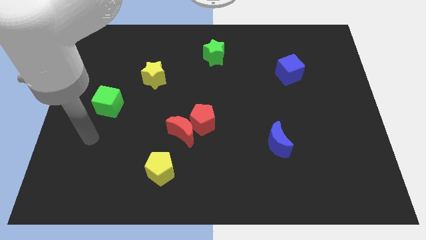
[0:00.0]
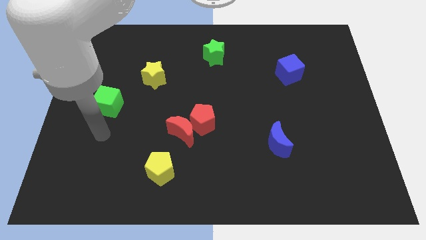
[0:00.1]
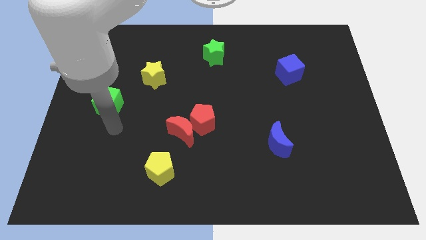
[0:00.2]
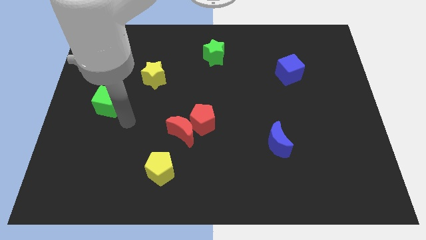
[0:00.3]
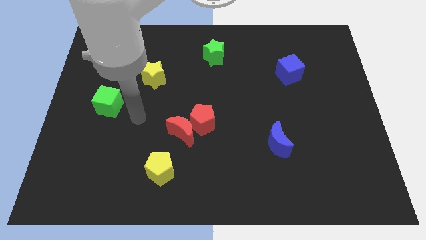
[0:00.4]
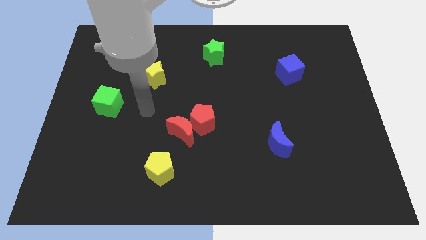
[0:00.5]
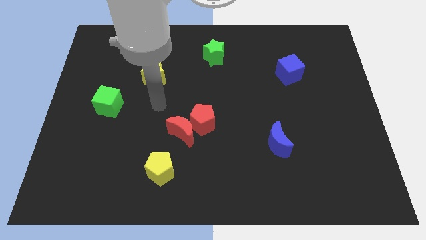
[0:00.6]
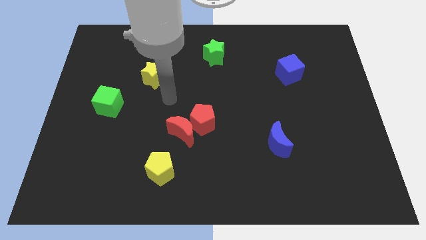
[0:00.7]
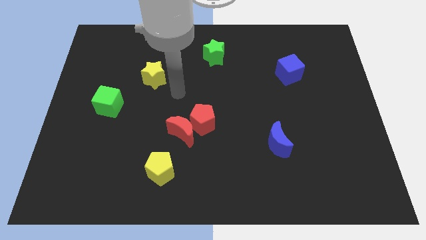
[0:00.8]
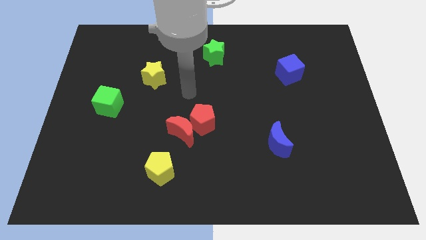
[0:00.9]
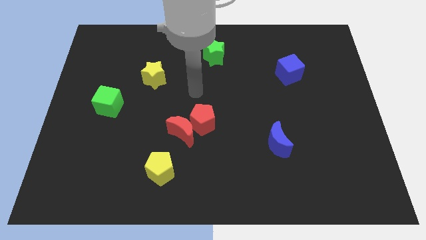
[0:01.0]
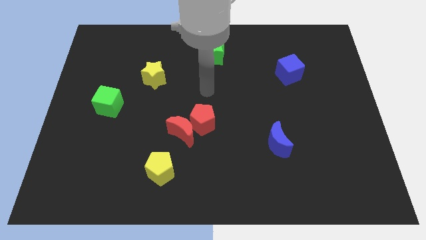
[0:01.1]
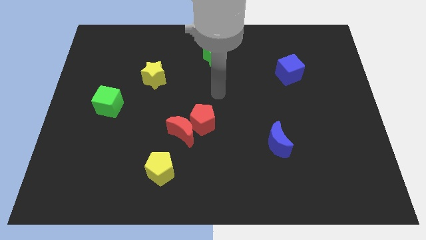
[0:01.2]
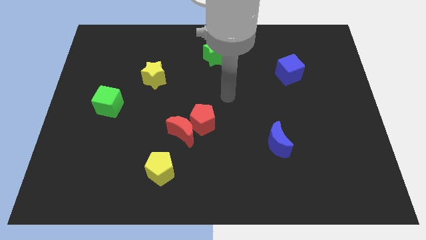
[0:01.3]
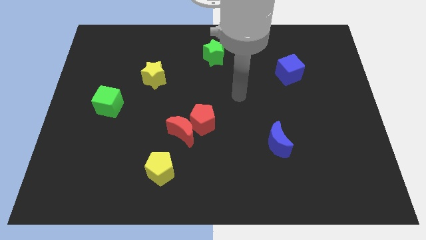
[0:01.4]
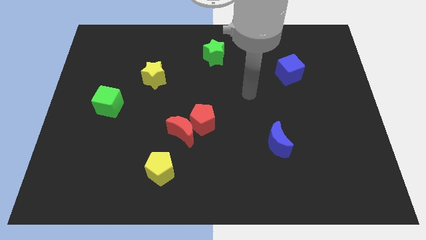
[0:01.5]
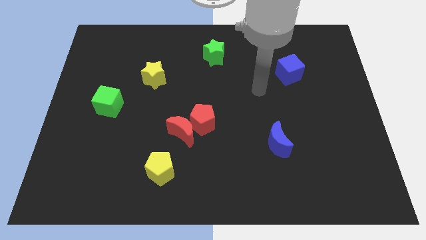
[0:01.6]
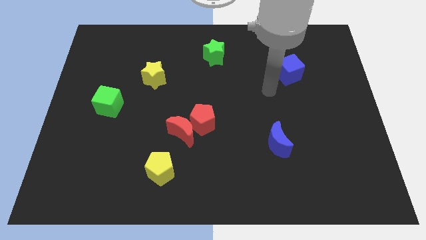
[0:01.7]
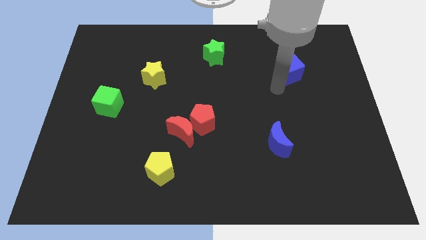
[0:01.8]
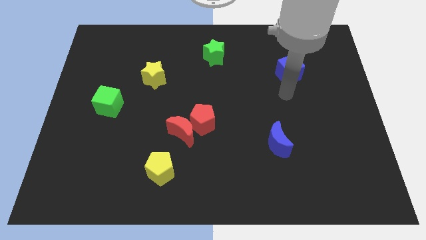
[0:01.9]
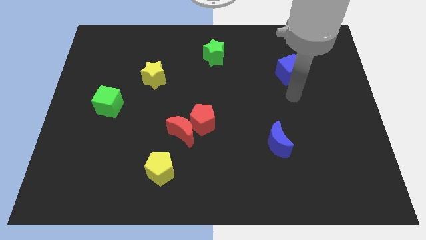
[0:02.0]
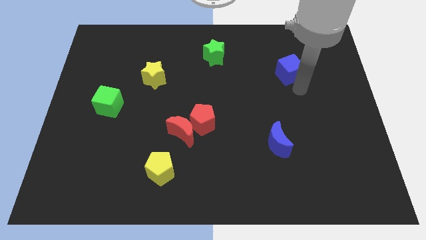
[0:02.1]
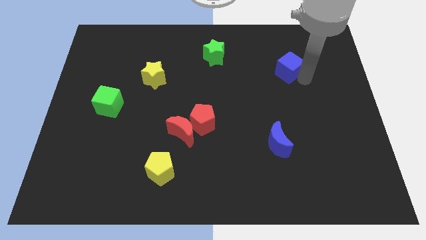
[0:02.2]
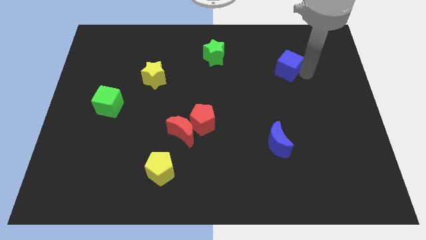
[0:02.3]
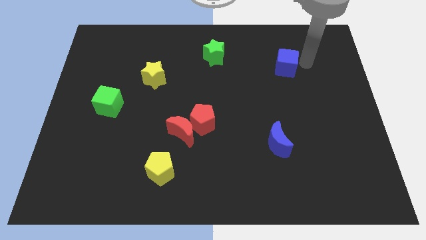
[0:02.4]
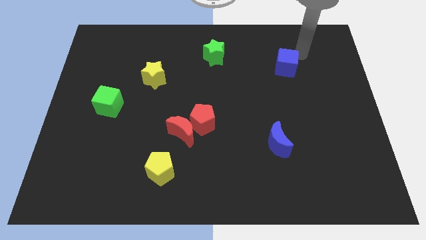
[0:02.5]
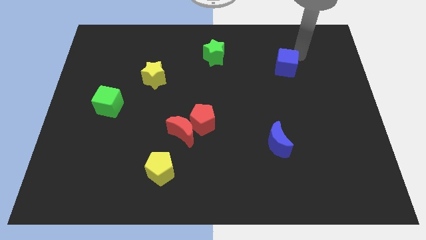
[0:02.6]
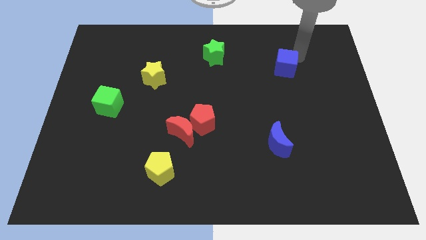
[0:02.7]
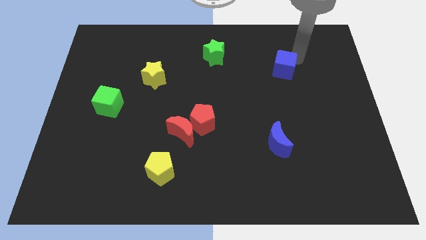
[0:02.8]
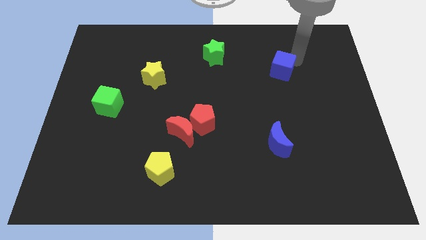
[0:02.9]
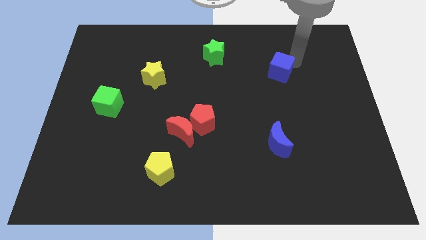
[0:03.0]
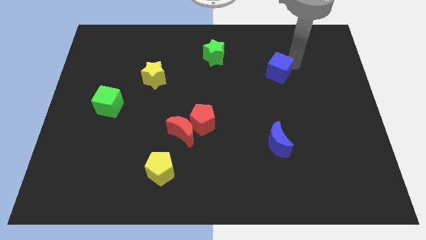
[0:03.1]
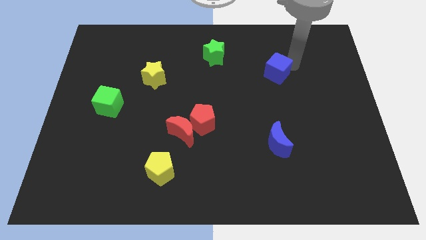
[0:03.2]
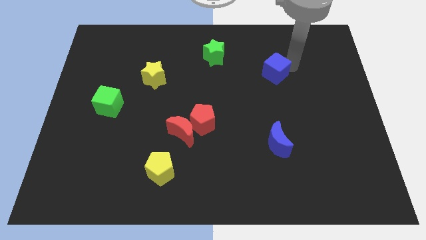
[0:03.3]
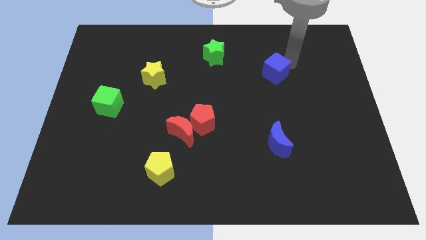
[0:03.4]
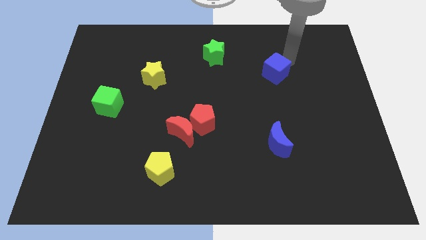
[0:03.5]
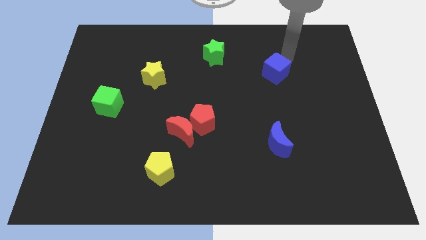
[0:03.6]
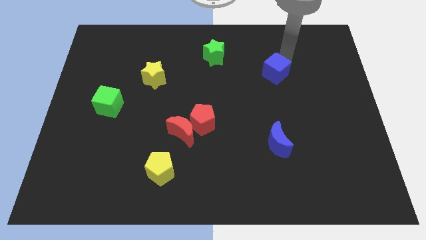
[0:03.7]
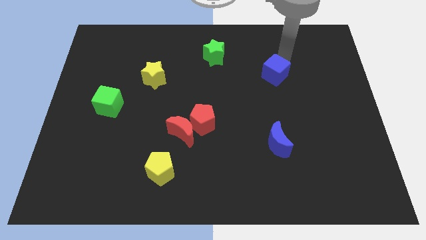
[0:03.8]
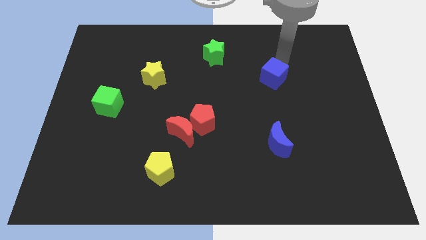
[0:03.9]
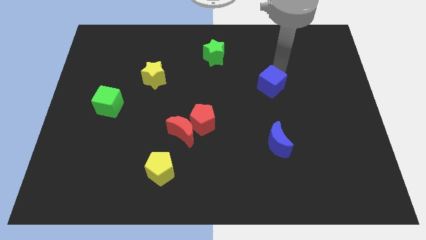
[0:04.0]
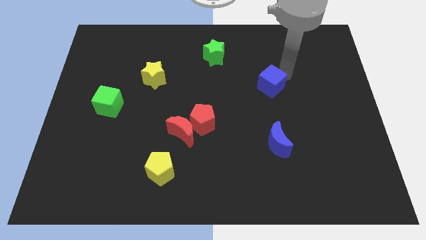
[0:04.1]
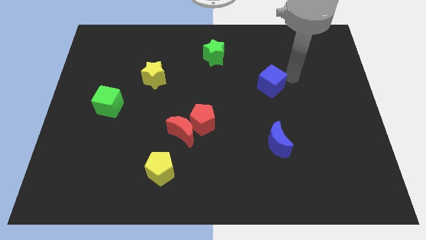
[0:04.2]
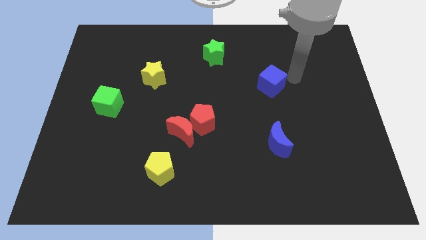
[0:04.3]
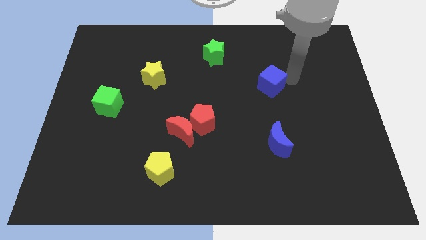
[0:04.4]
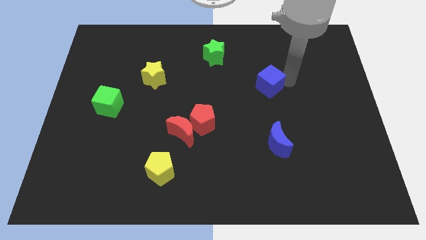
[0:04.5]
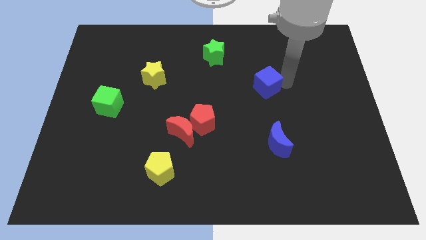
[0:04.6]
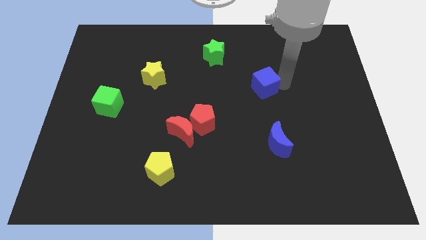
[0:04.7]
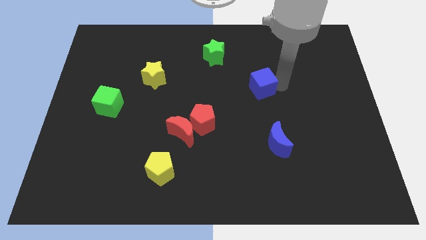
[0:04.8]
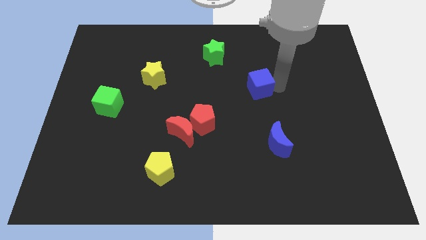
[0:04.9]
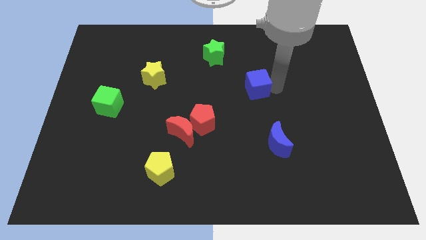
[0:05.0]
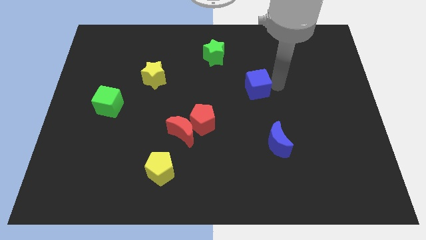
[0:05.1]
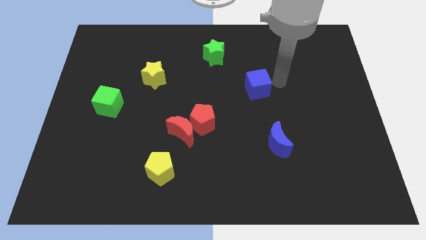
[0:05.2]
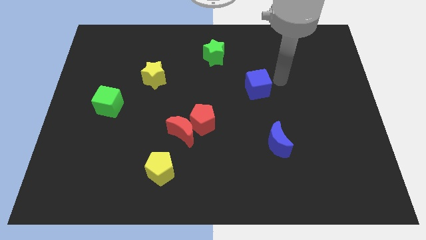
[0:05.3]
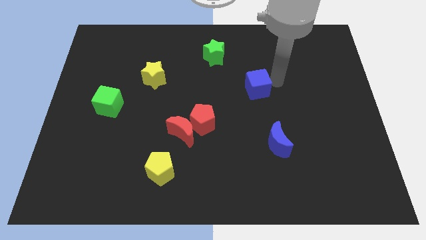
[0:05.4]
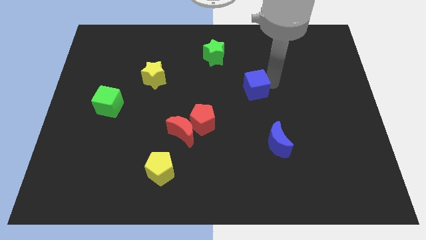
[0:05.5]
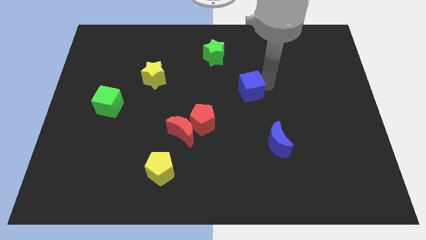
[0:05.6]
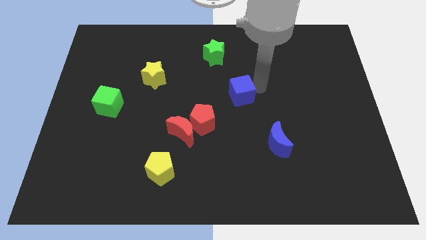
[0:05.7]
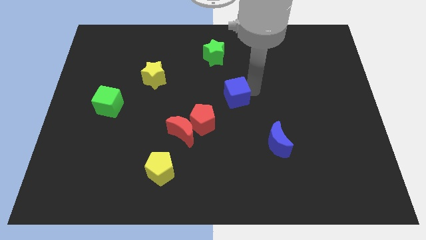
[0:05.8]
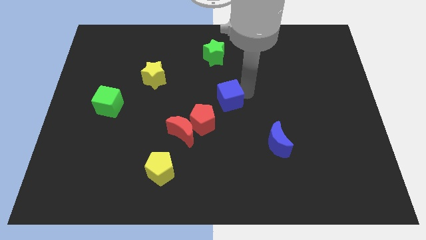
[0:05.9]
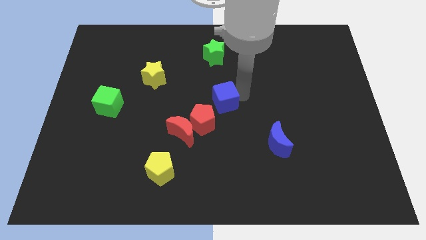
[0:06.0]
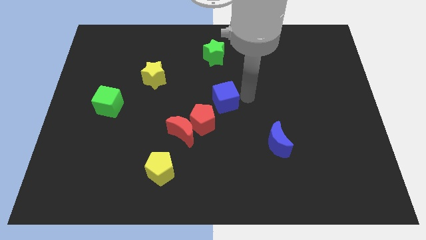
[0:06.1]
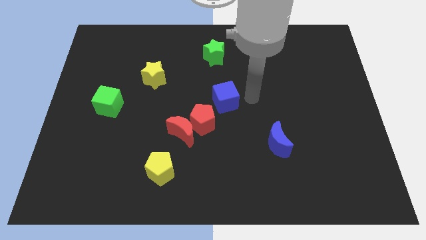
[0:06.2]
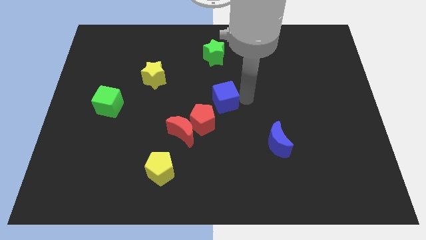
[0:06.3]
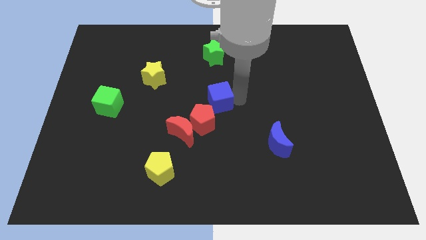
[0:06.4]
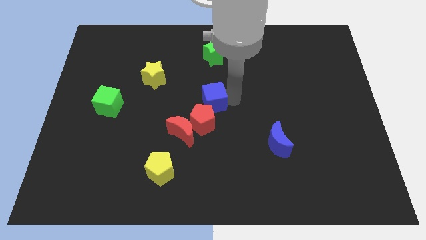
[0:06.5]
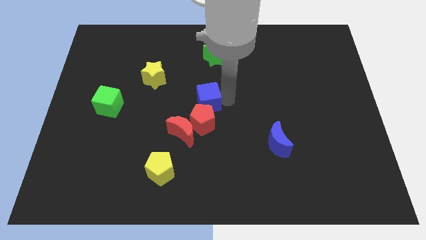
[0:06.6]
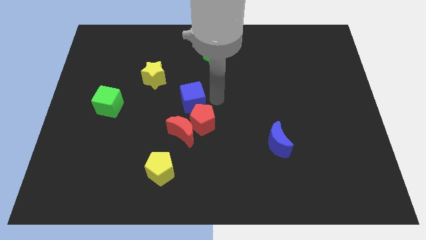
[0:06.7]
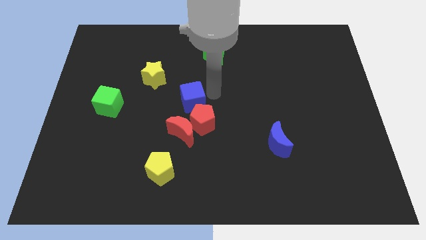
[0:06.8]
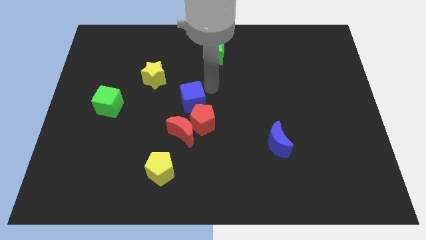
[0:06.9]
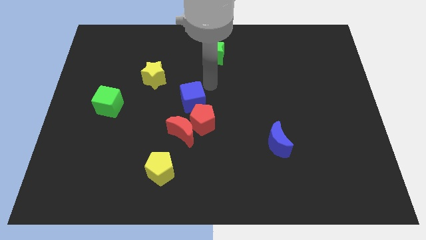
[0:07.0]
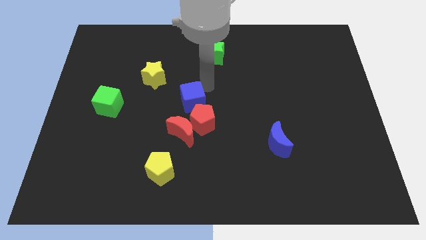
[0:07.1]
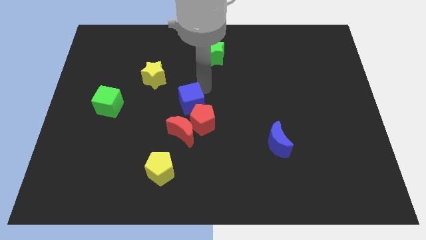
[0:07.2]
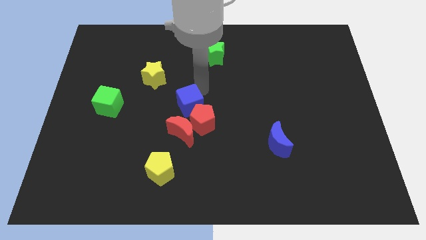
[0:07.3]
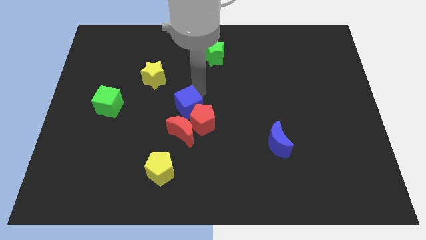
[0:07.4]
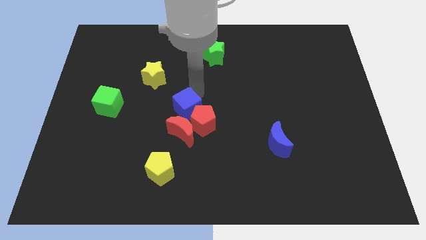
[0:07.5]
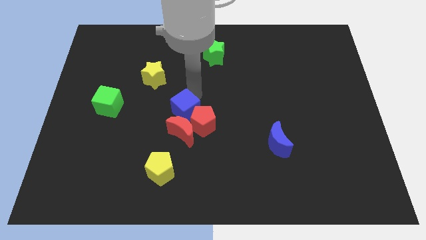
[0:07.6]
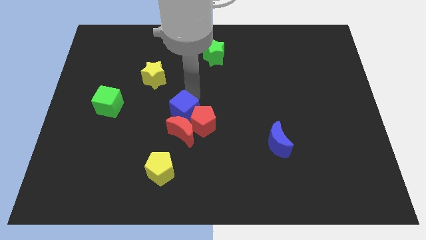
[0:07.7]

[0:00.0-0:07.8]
move the blue cube towards the red moon
